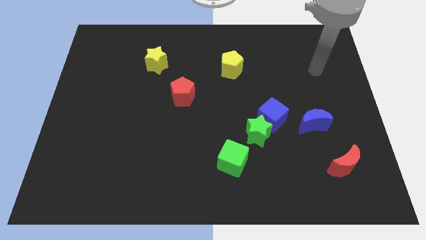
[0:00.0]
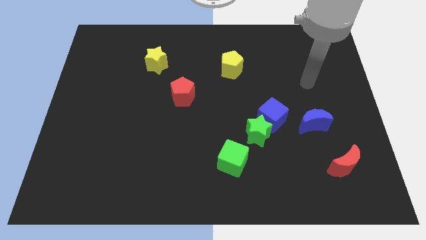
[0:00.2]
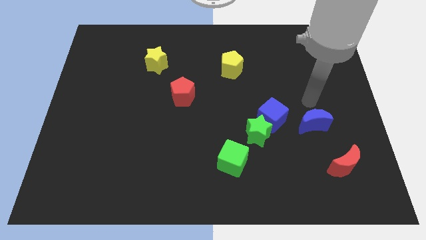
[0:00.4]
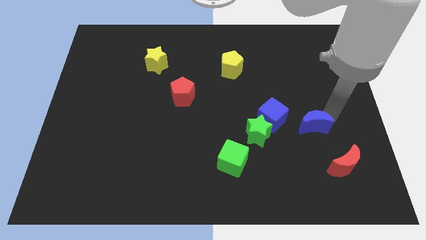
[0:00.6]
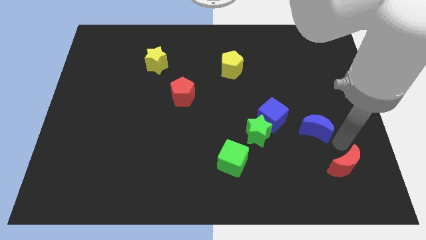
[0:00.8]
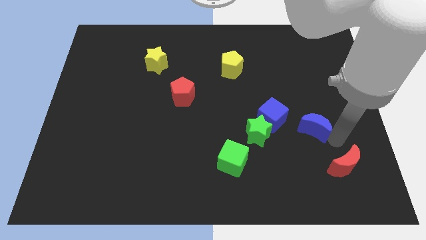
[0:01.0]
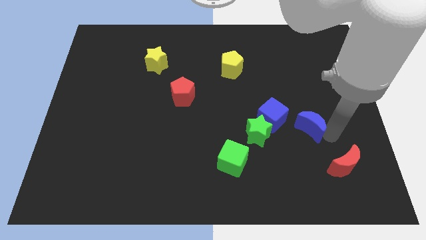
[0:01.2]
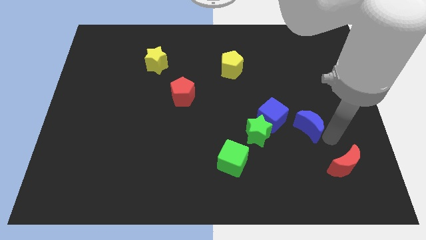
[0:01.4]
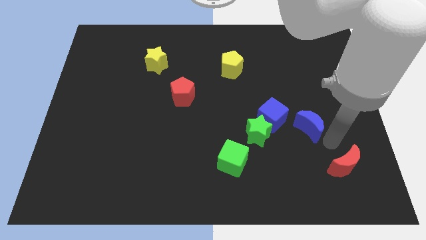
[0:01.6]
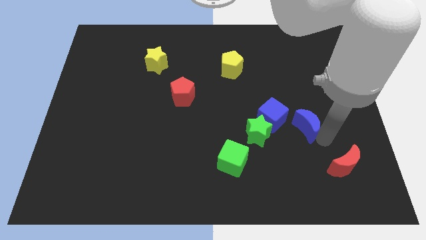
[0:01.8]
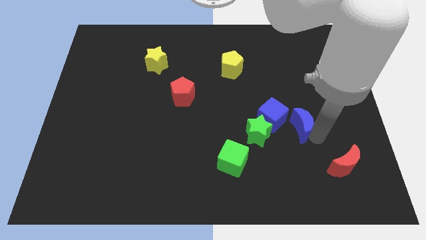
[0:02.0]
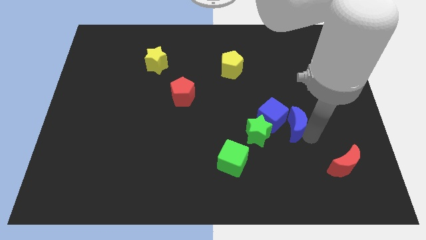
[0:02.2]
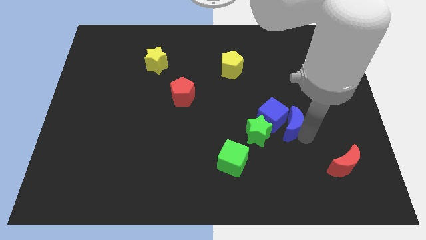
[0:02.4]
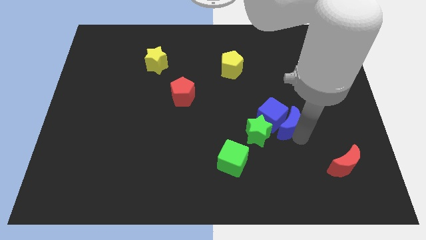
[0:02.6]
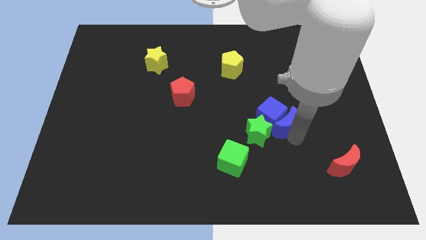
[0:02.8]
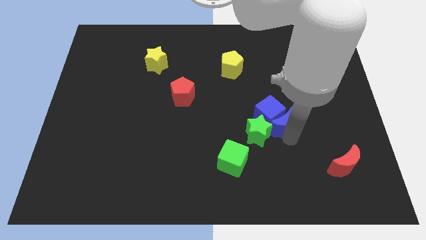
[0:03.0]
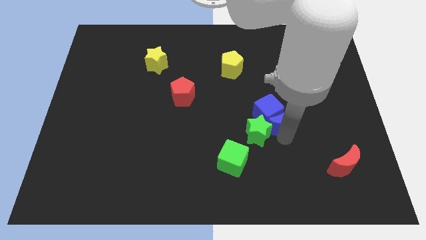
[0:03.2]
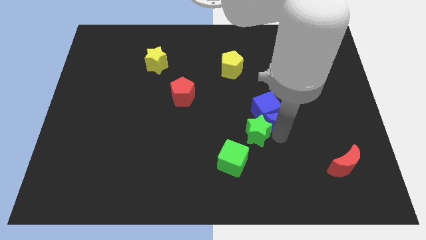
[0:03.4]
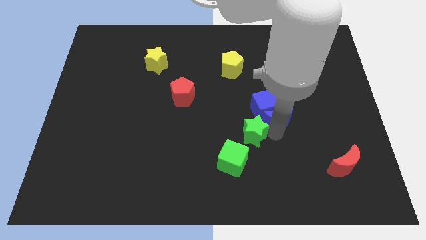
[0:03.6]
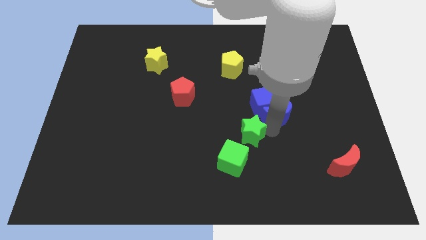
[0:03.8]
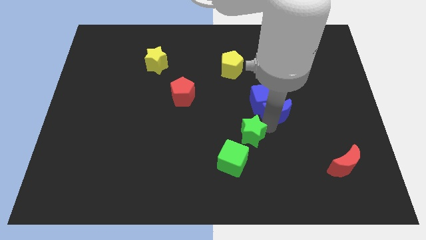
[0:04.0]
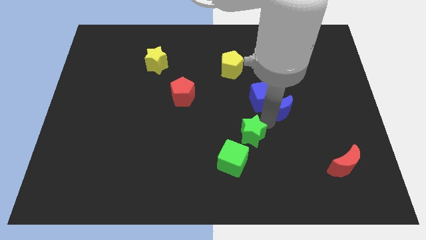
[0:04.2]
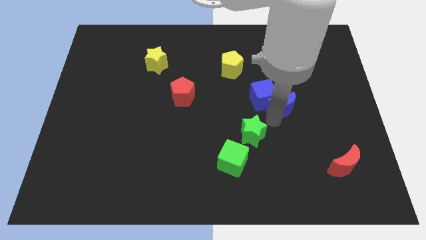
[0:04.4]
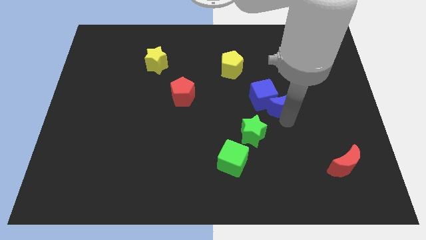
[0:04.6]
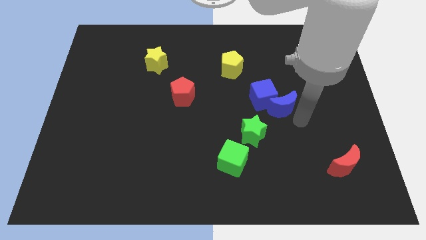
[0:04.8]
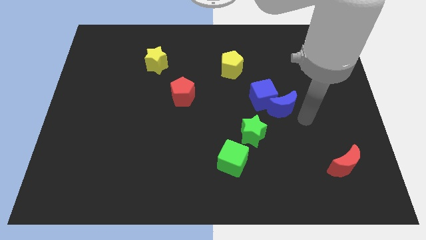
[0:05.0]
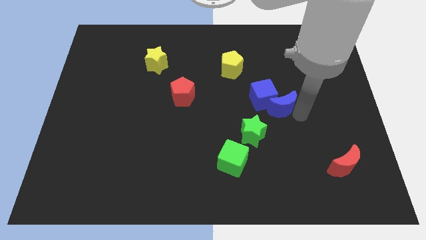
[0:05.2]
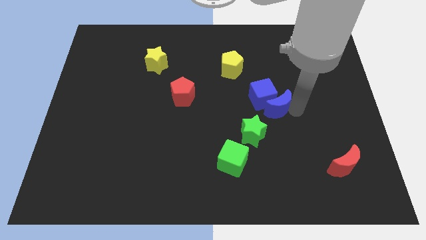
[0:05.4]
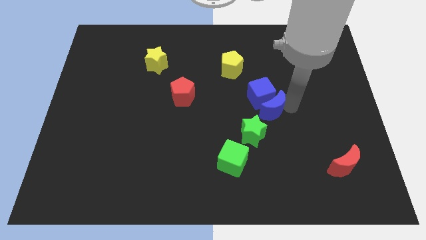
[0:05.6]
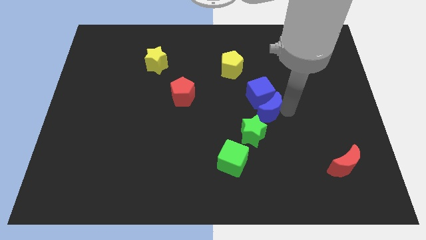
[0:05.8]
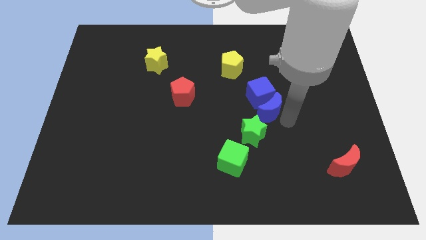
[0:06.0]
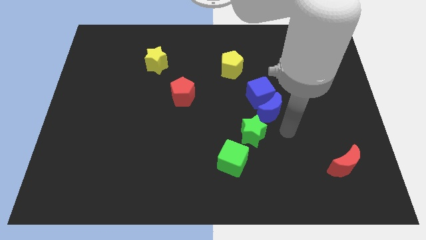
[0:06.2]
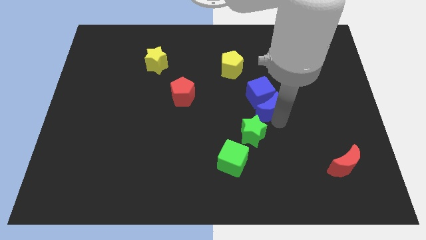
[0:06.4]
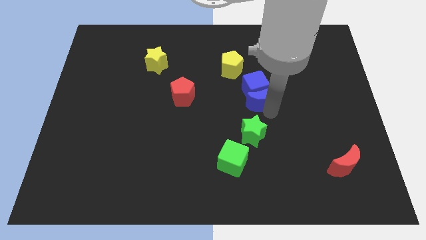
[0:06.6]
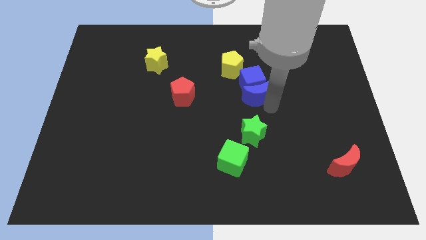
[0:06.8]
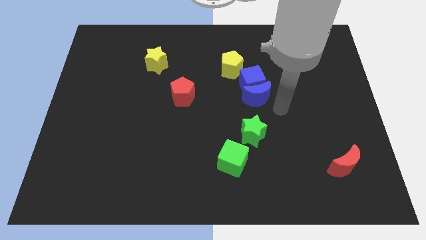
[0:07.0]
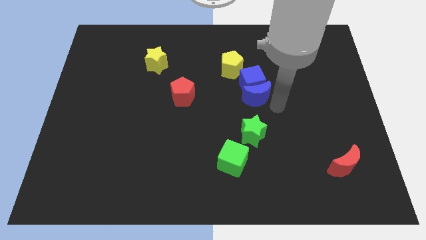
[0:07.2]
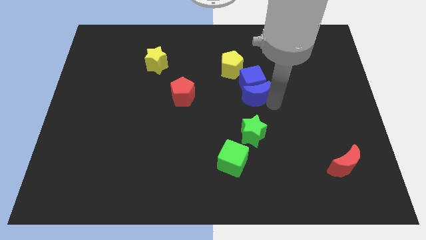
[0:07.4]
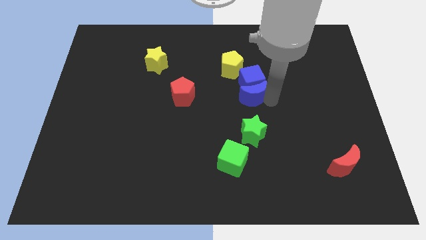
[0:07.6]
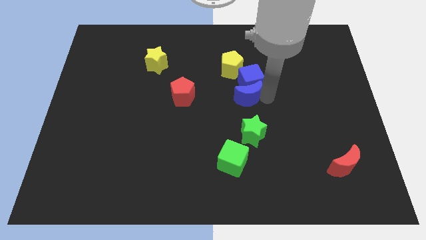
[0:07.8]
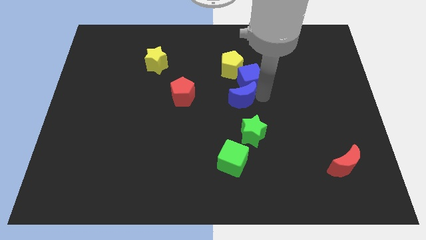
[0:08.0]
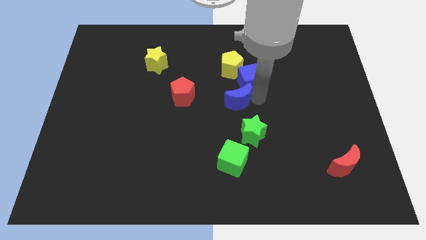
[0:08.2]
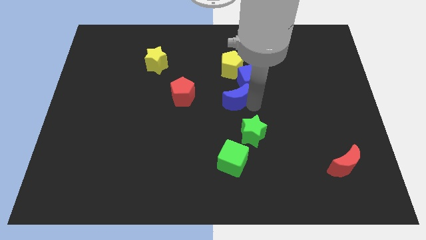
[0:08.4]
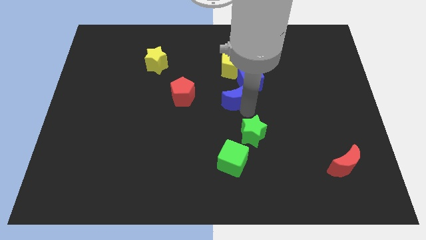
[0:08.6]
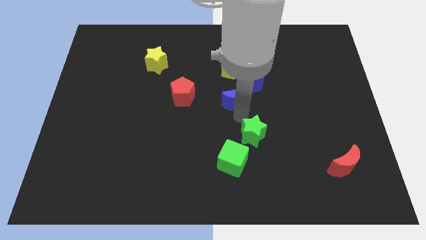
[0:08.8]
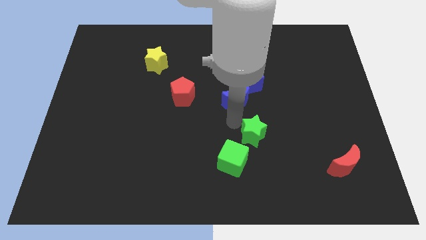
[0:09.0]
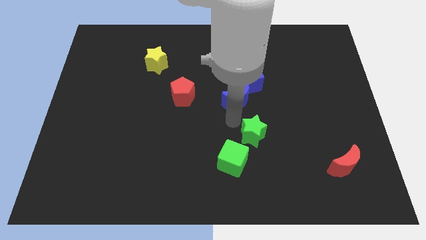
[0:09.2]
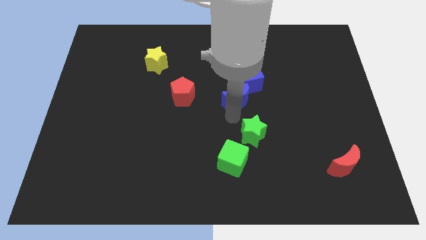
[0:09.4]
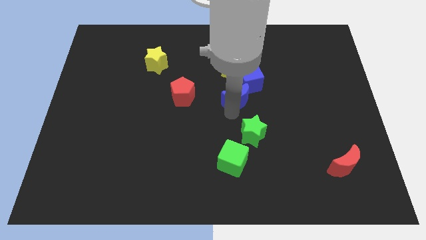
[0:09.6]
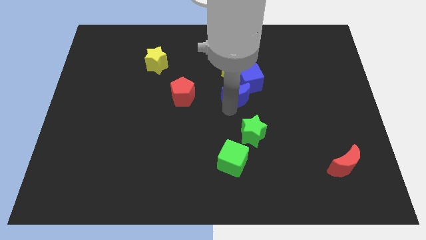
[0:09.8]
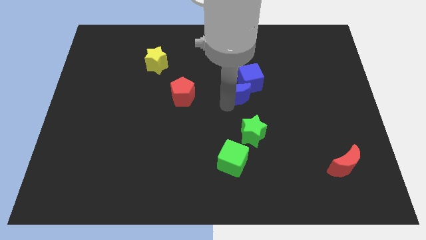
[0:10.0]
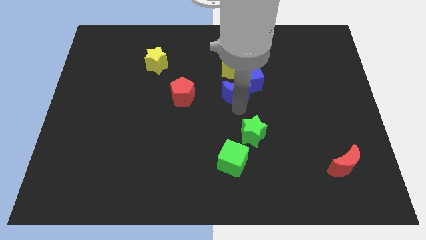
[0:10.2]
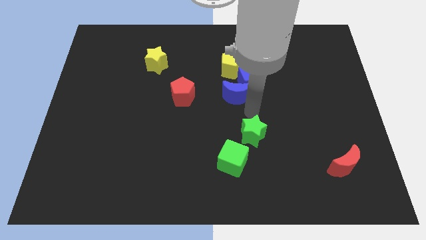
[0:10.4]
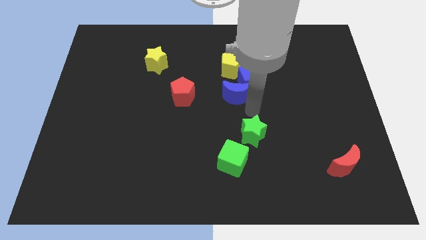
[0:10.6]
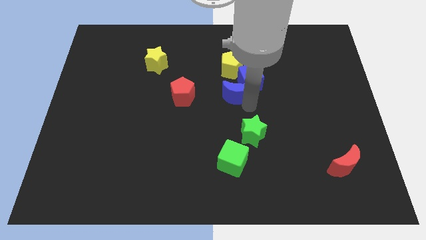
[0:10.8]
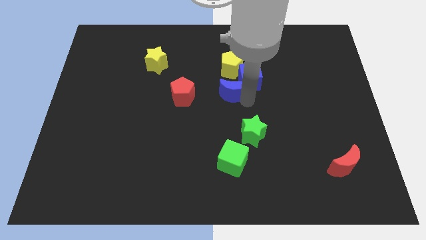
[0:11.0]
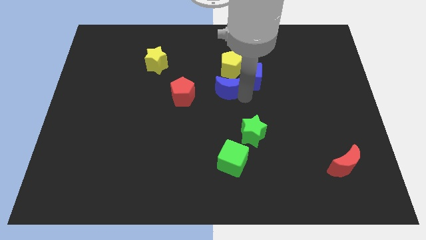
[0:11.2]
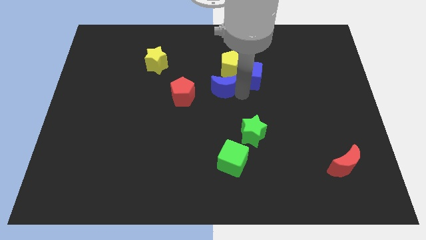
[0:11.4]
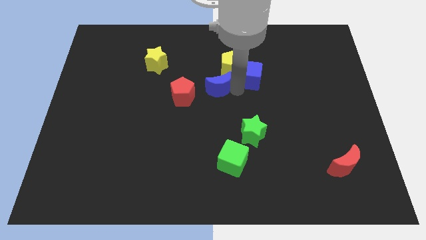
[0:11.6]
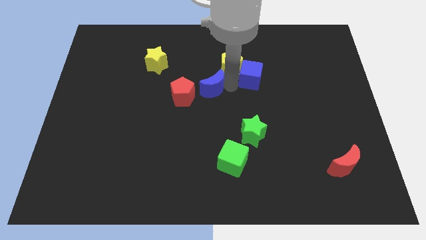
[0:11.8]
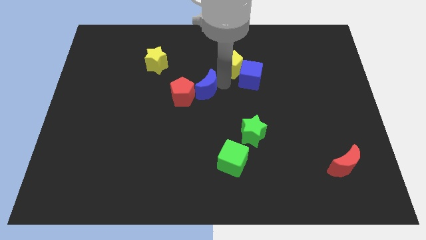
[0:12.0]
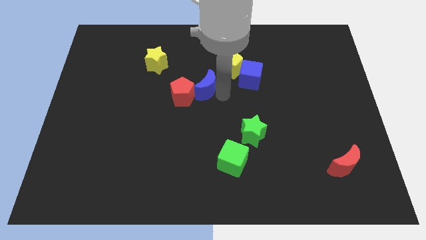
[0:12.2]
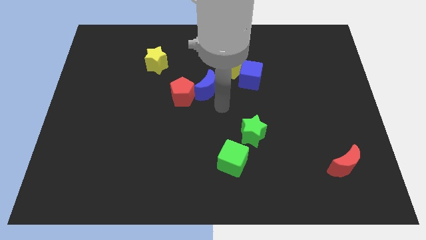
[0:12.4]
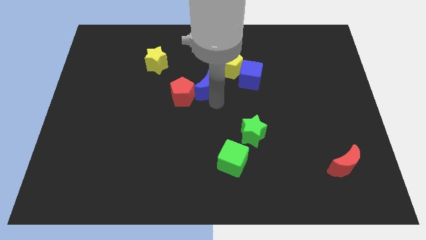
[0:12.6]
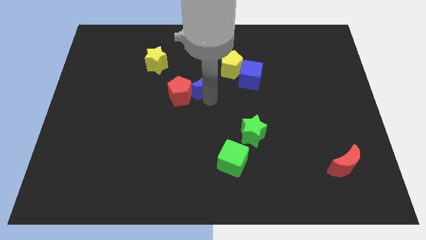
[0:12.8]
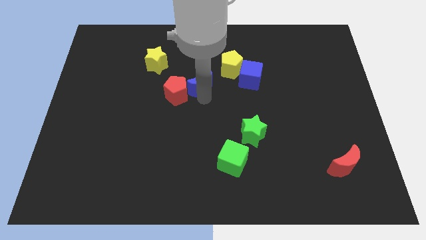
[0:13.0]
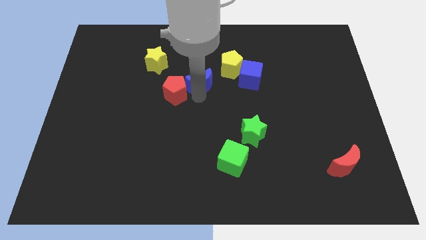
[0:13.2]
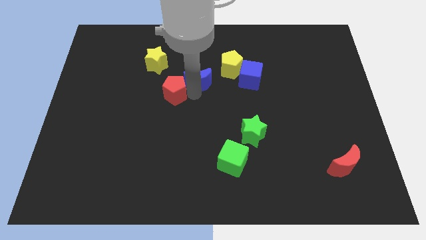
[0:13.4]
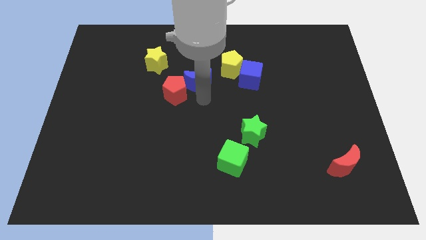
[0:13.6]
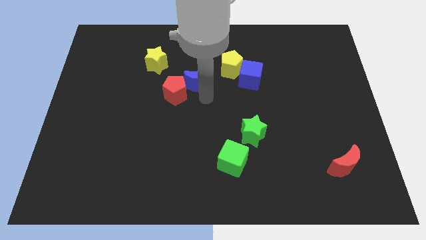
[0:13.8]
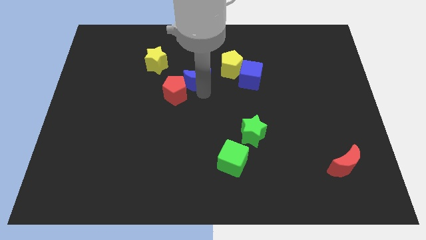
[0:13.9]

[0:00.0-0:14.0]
put the blue moon to the left side of the yellow pentagon
